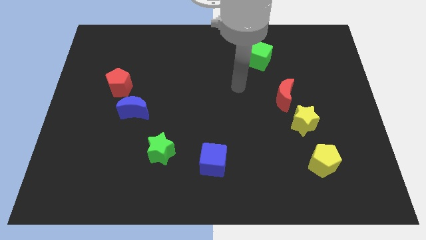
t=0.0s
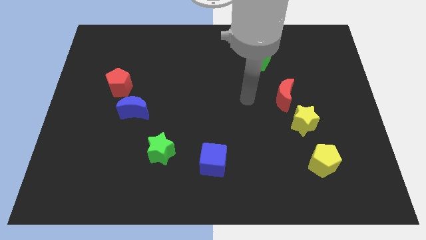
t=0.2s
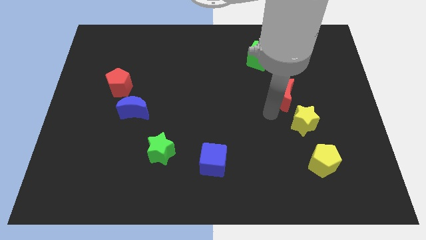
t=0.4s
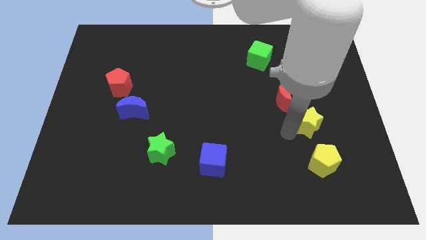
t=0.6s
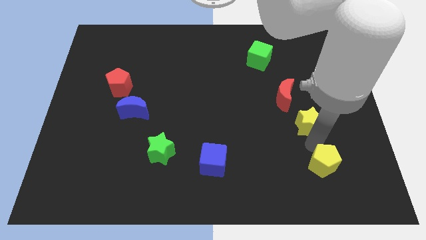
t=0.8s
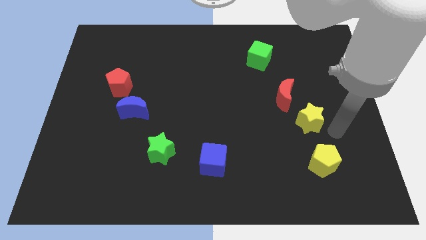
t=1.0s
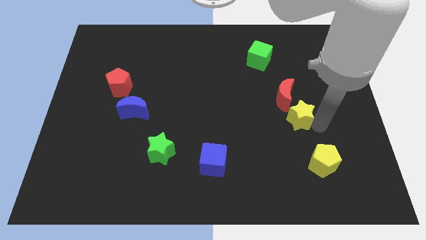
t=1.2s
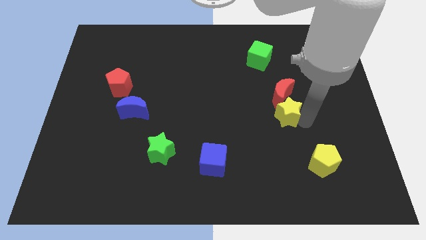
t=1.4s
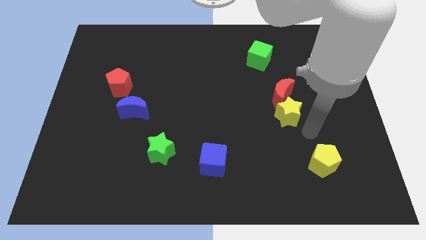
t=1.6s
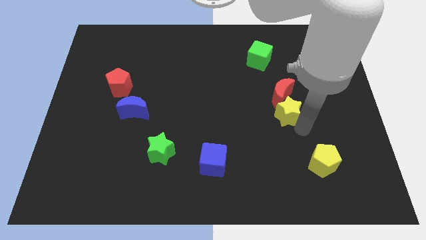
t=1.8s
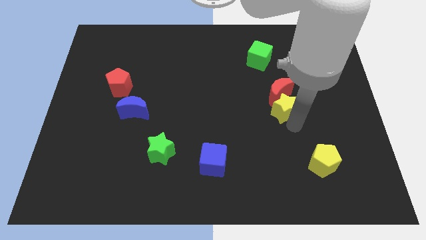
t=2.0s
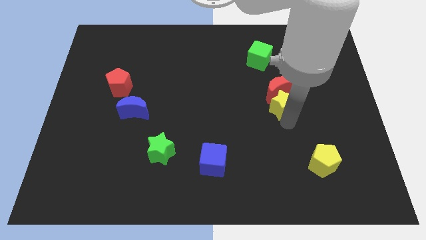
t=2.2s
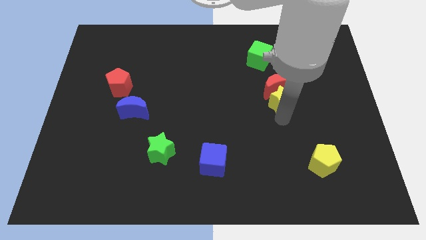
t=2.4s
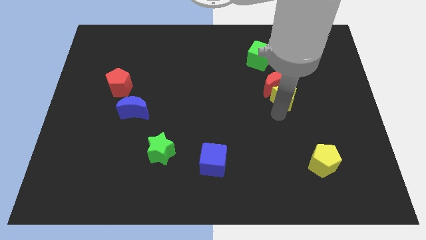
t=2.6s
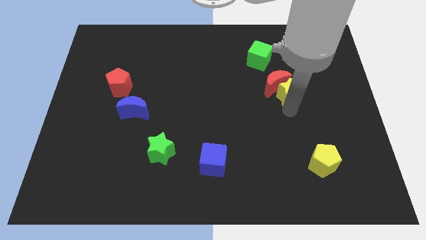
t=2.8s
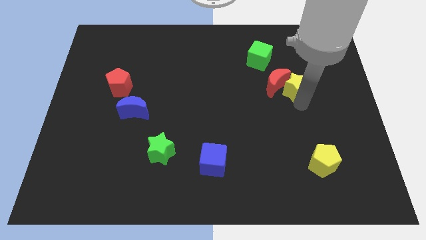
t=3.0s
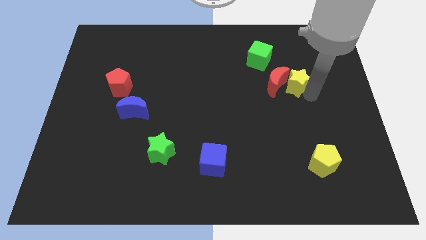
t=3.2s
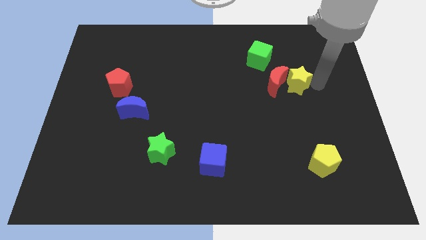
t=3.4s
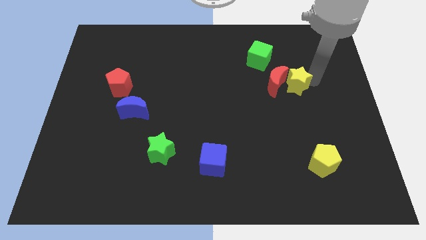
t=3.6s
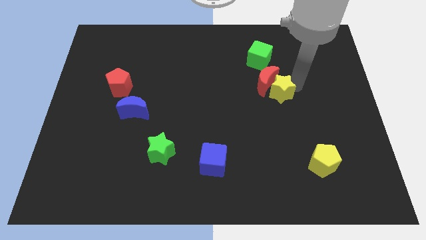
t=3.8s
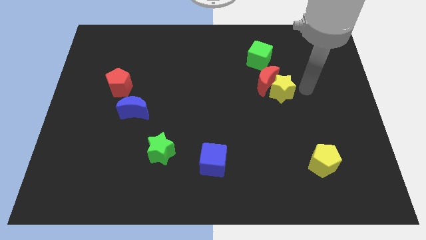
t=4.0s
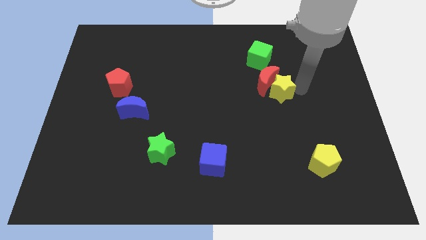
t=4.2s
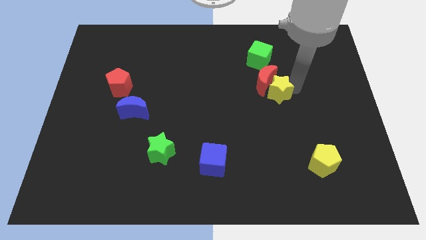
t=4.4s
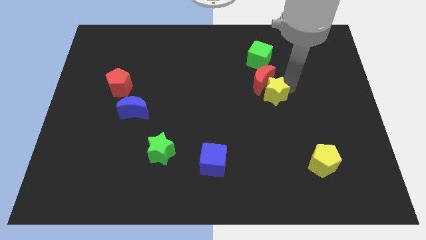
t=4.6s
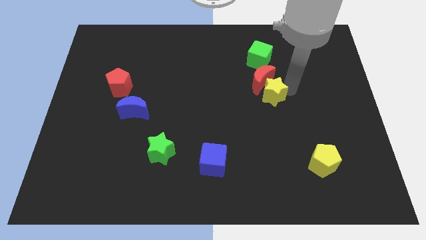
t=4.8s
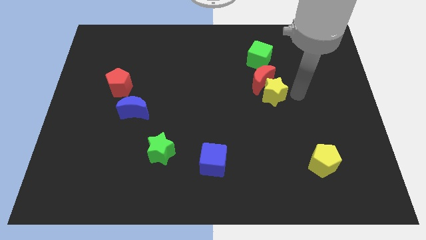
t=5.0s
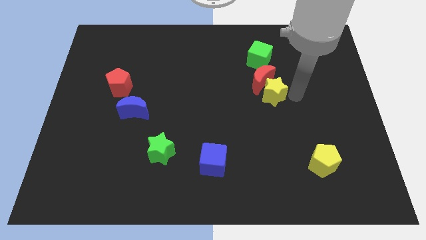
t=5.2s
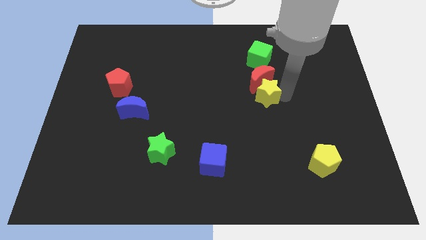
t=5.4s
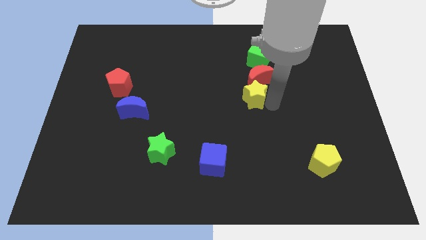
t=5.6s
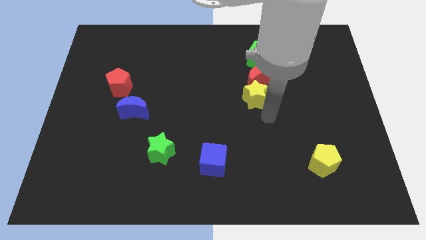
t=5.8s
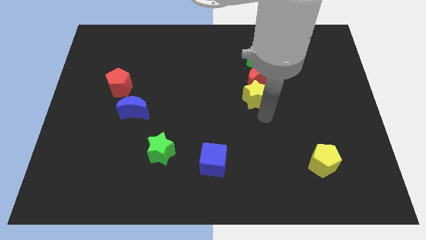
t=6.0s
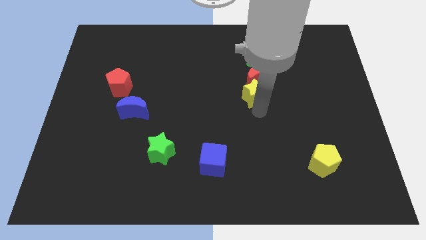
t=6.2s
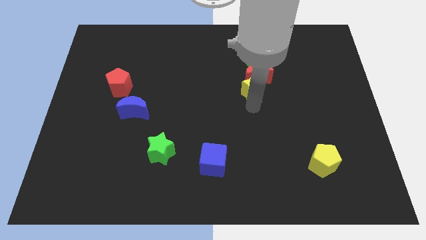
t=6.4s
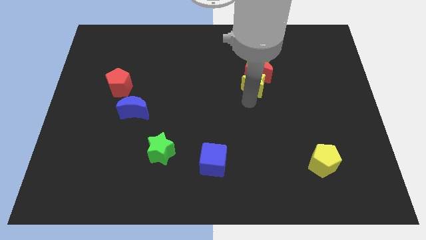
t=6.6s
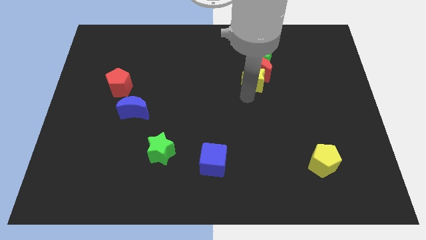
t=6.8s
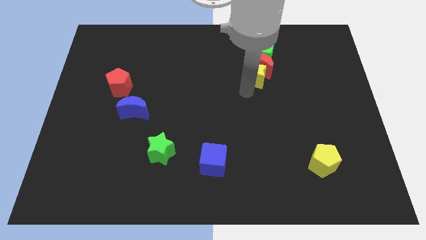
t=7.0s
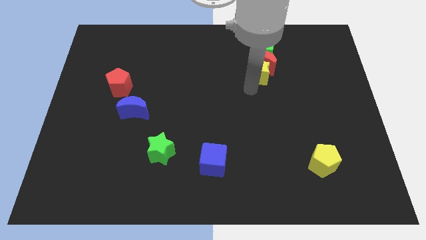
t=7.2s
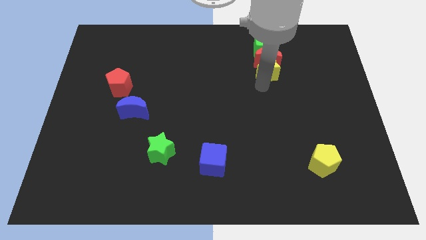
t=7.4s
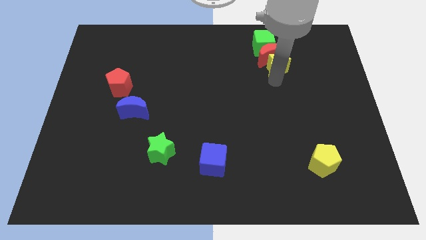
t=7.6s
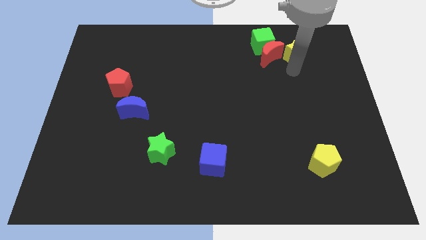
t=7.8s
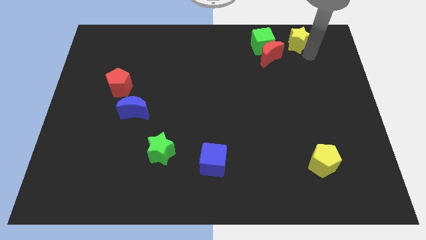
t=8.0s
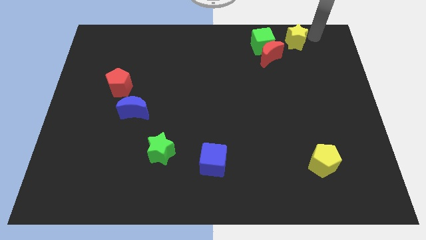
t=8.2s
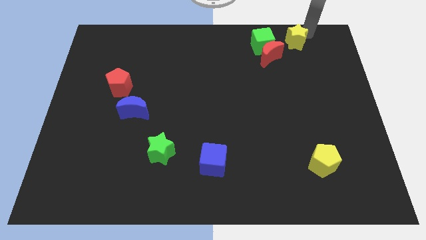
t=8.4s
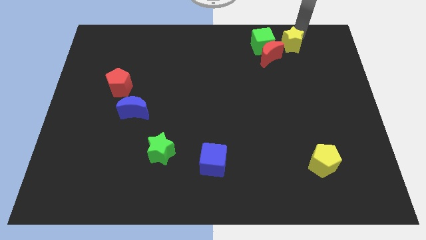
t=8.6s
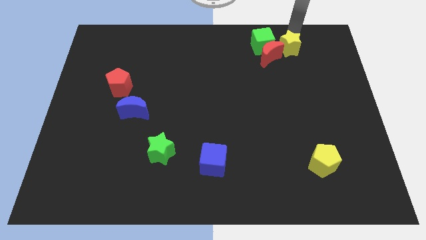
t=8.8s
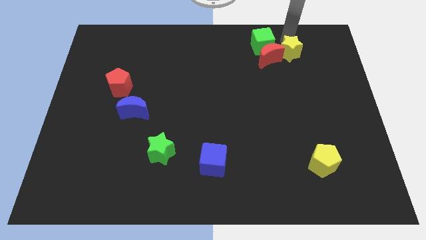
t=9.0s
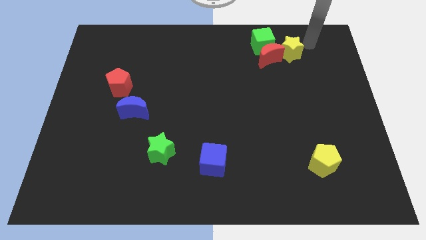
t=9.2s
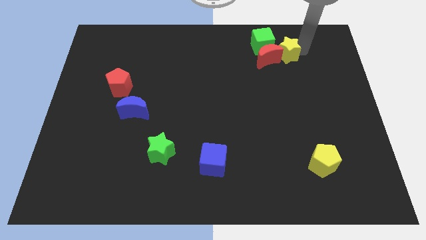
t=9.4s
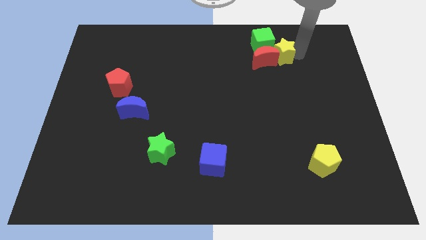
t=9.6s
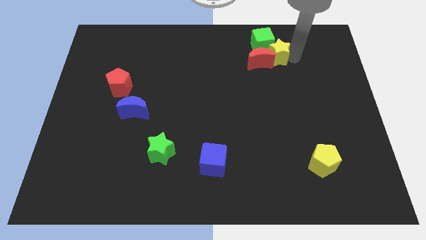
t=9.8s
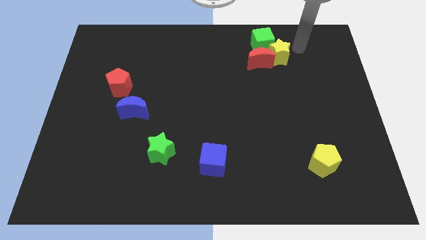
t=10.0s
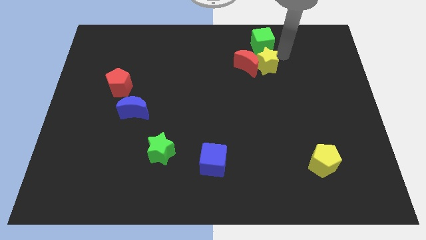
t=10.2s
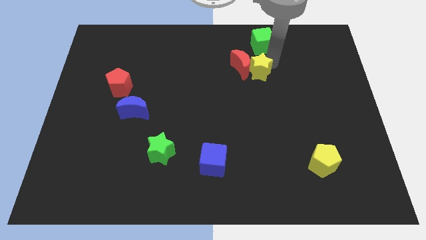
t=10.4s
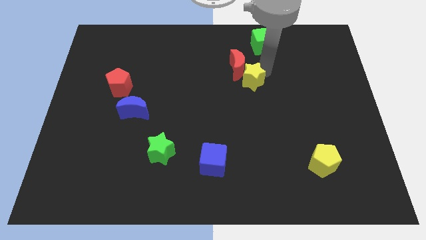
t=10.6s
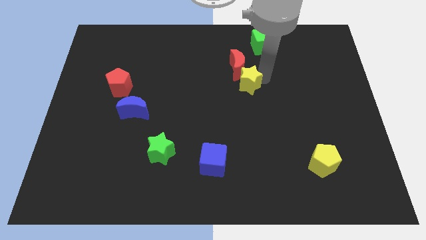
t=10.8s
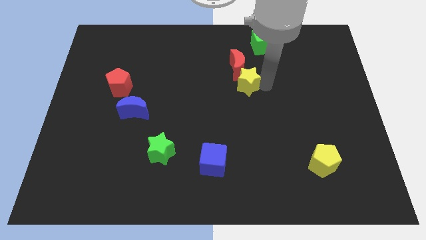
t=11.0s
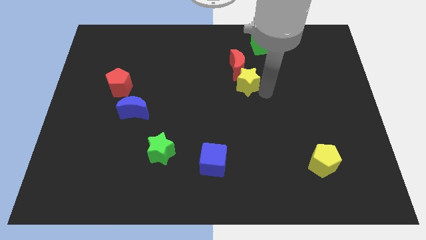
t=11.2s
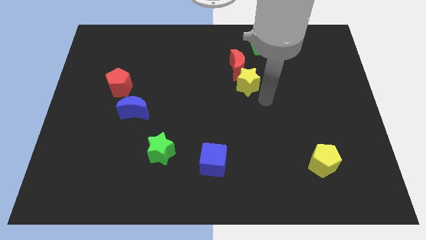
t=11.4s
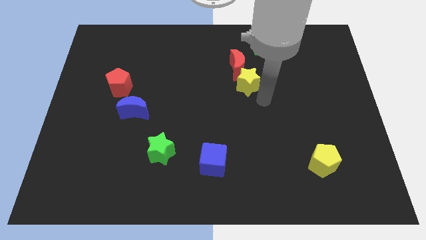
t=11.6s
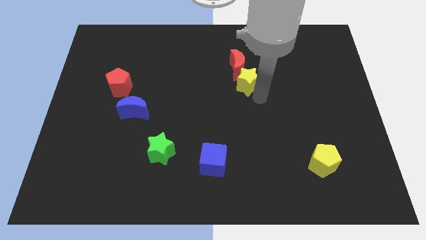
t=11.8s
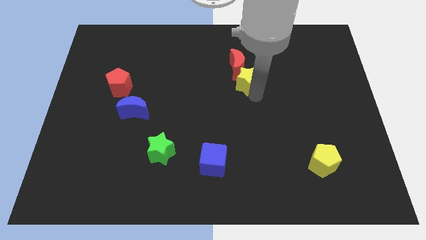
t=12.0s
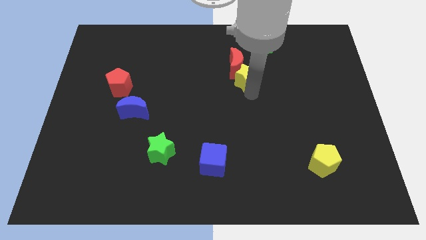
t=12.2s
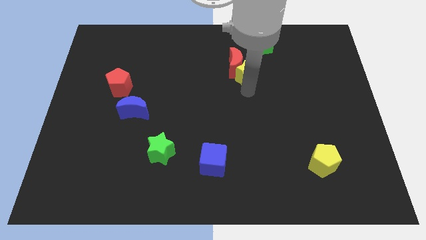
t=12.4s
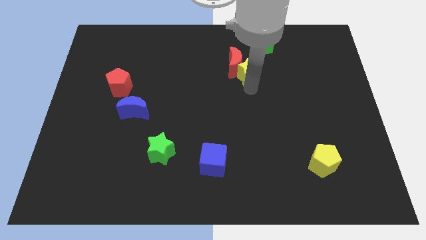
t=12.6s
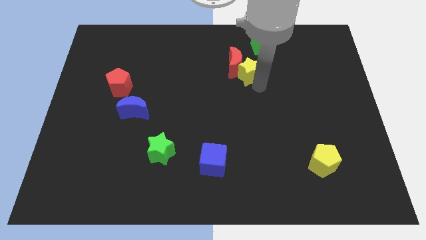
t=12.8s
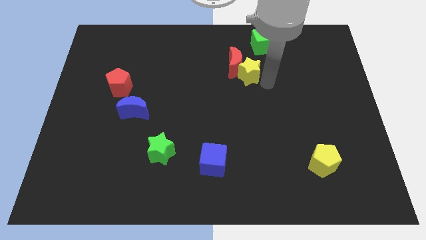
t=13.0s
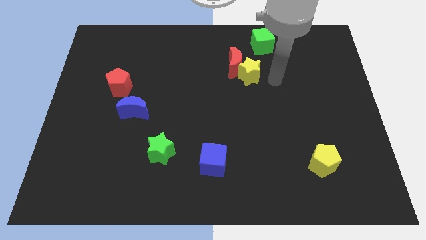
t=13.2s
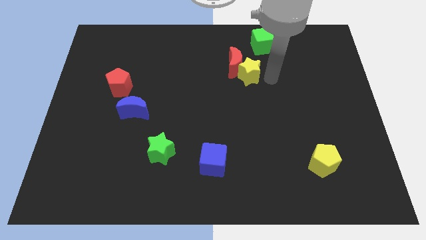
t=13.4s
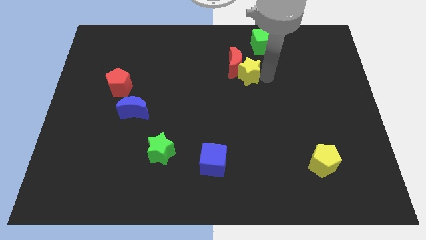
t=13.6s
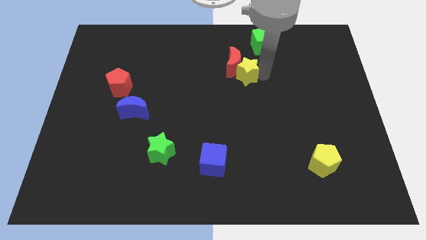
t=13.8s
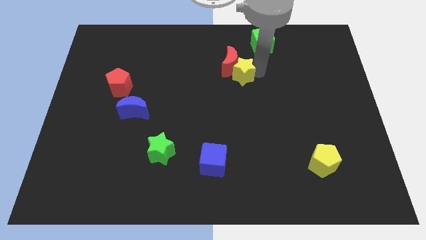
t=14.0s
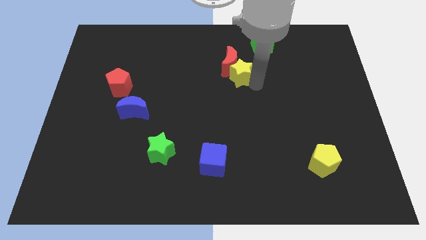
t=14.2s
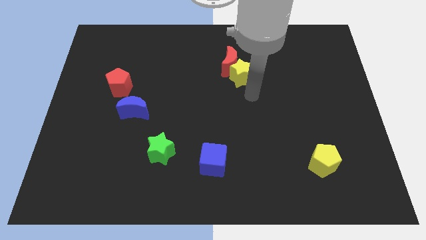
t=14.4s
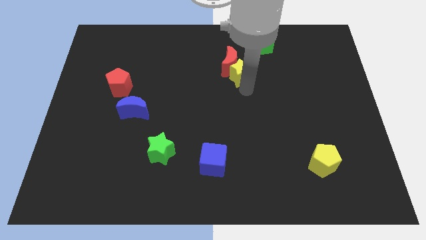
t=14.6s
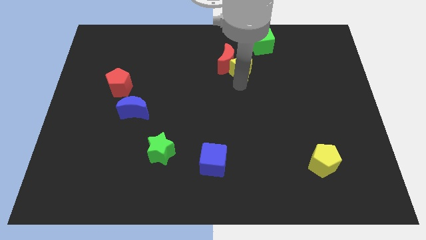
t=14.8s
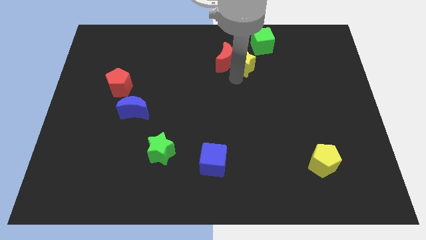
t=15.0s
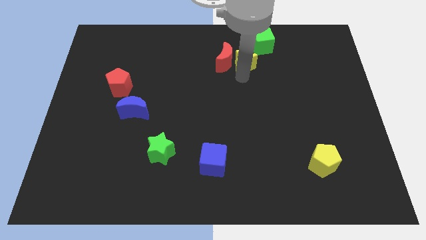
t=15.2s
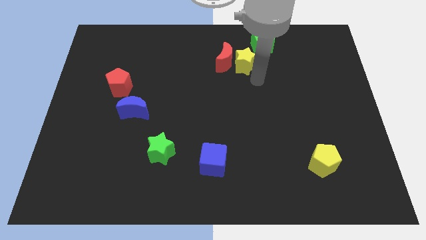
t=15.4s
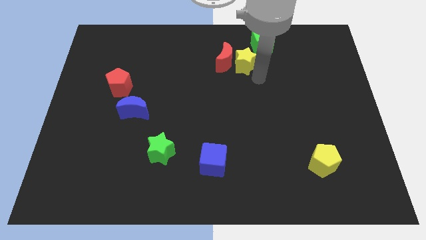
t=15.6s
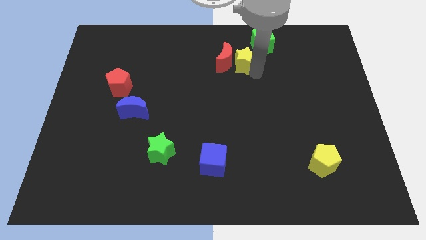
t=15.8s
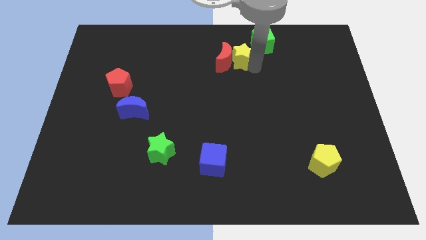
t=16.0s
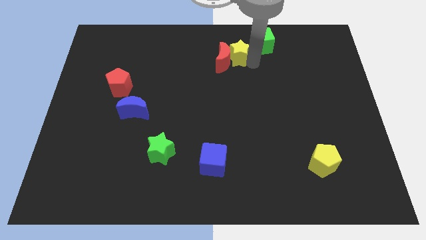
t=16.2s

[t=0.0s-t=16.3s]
put the yellow star just left of the green cube

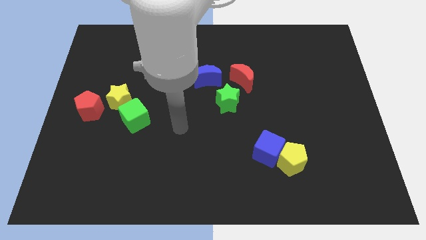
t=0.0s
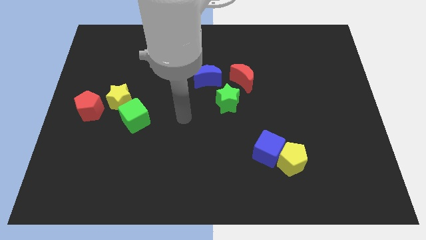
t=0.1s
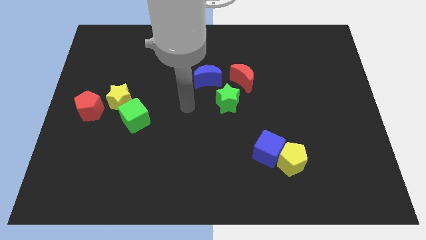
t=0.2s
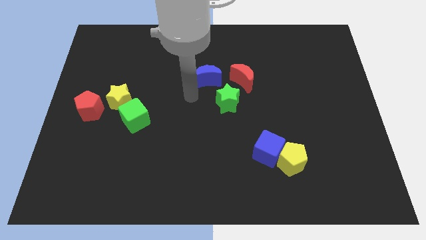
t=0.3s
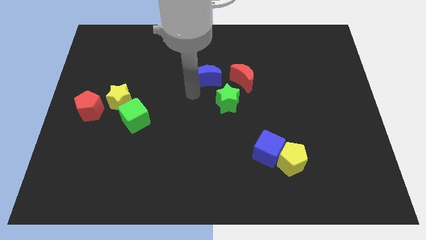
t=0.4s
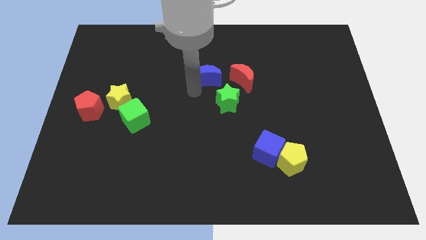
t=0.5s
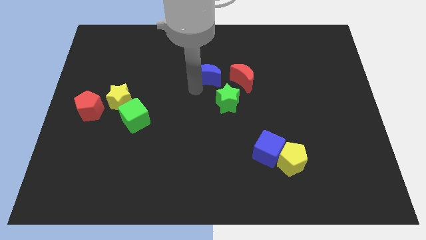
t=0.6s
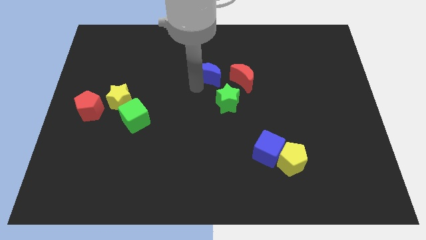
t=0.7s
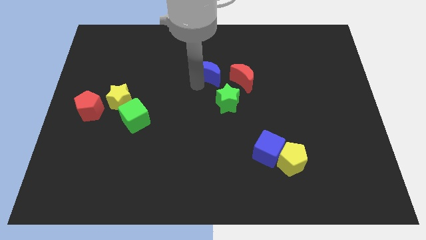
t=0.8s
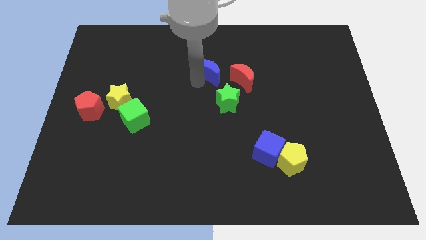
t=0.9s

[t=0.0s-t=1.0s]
put the blue moon to the top left side of the red moon
